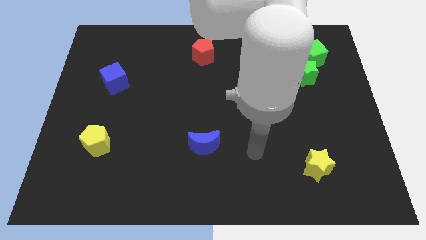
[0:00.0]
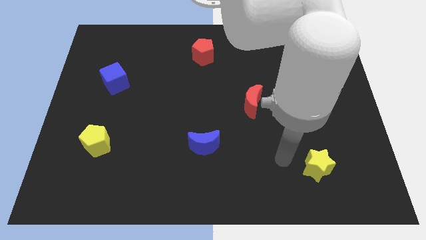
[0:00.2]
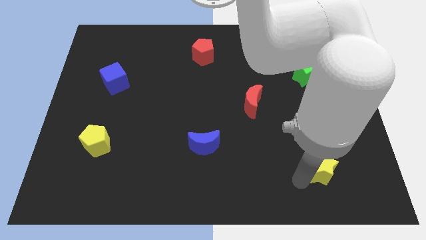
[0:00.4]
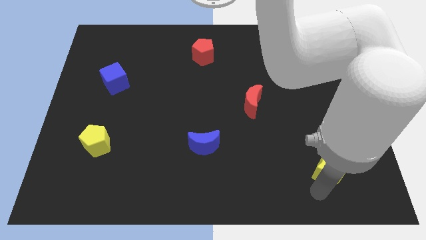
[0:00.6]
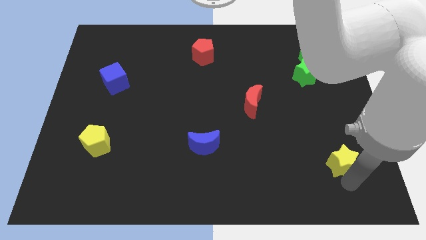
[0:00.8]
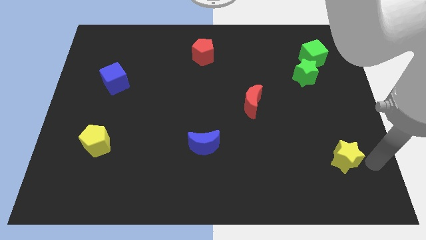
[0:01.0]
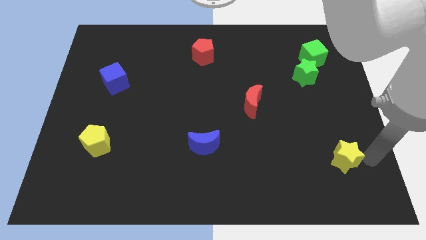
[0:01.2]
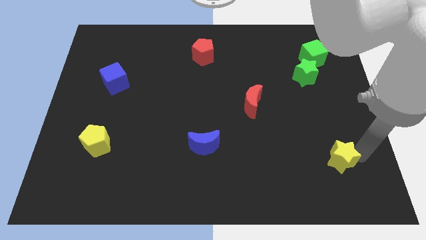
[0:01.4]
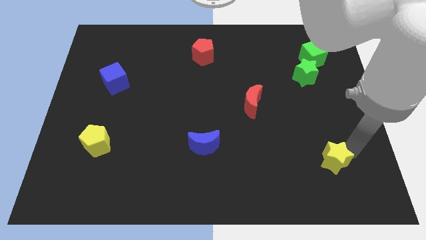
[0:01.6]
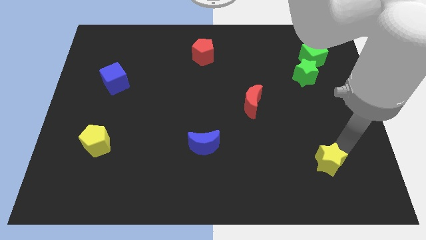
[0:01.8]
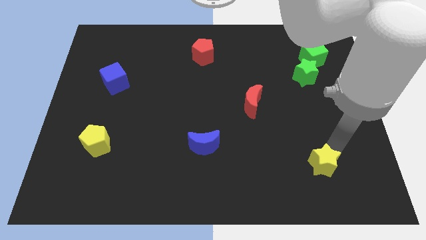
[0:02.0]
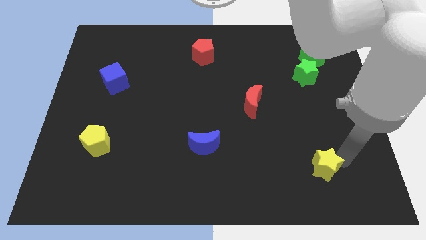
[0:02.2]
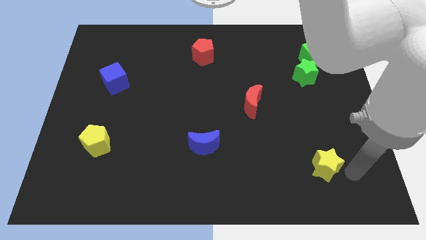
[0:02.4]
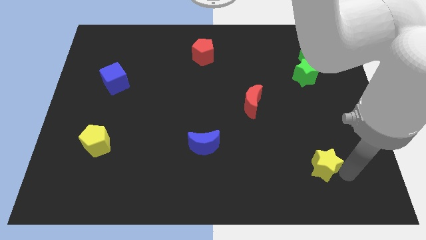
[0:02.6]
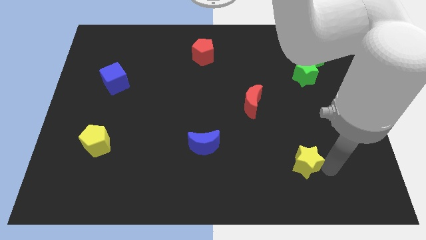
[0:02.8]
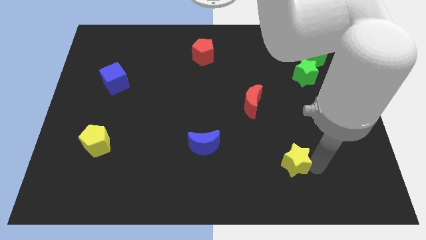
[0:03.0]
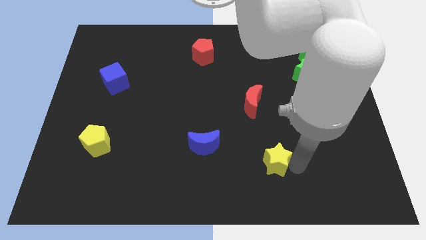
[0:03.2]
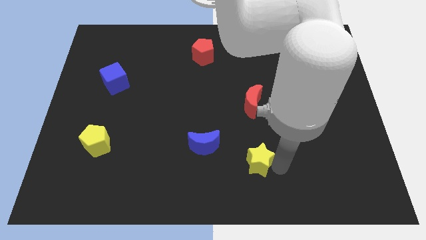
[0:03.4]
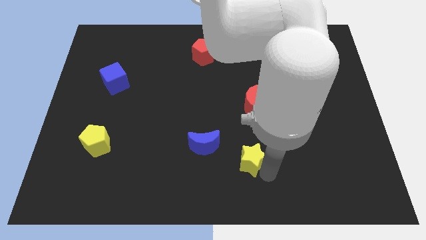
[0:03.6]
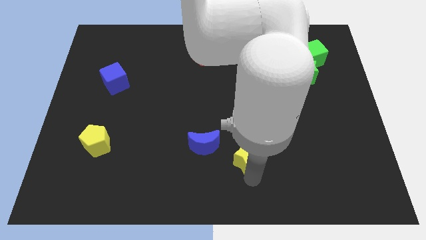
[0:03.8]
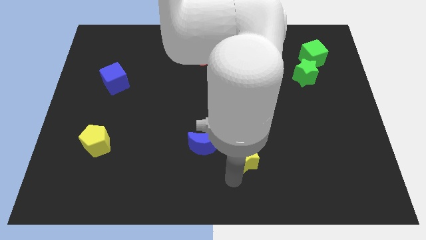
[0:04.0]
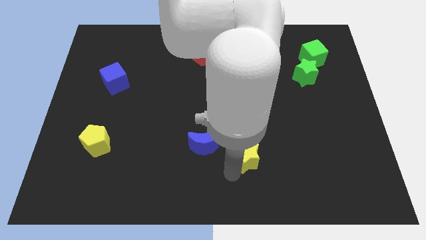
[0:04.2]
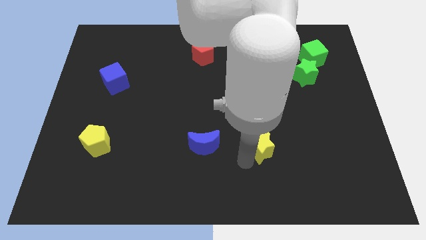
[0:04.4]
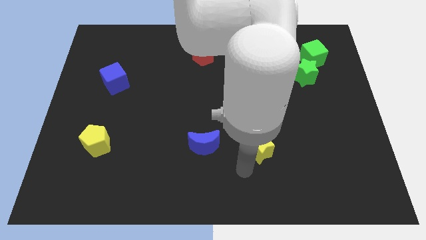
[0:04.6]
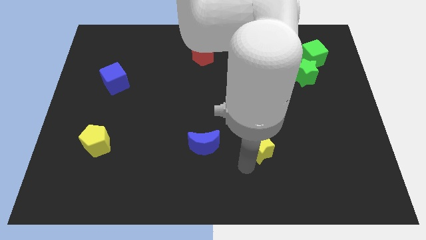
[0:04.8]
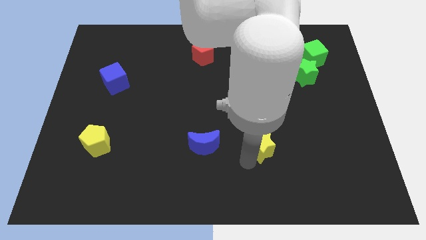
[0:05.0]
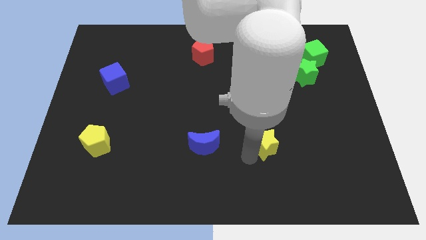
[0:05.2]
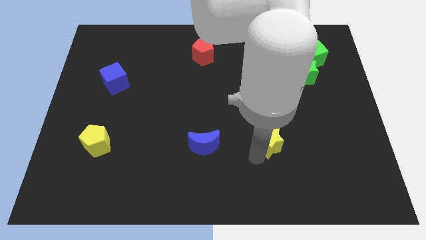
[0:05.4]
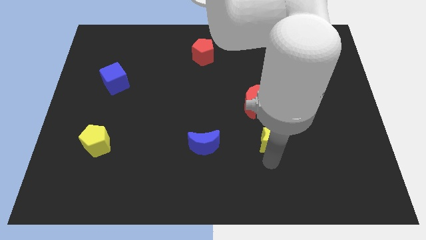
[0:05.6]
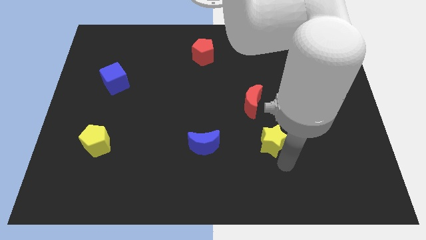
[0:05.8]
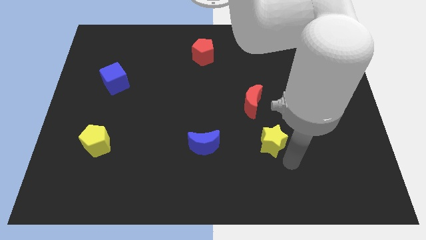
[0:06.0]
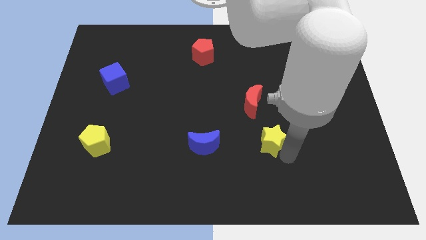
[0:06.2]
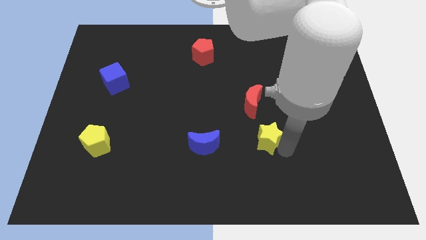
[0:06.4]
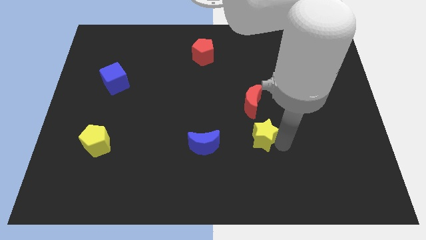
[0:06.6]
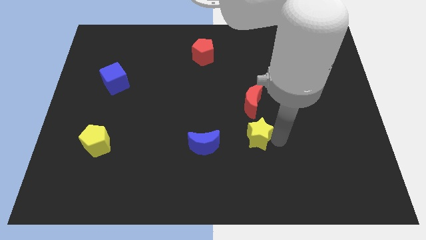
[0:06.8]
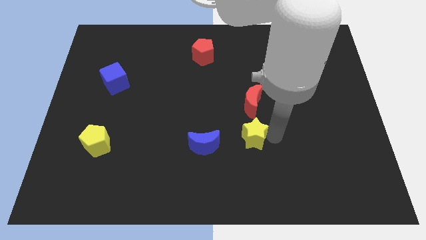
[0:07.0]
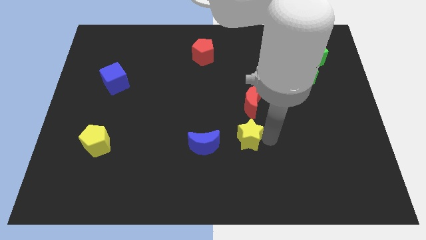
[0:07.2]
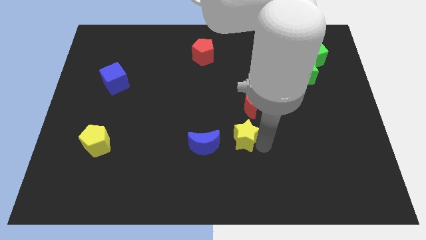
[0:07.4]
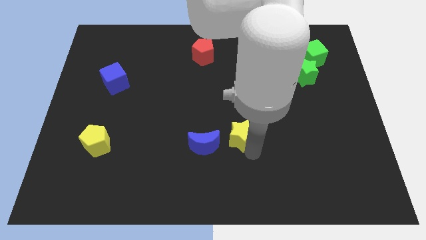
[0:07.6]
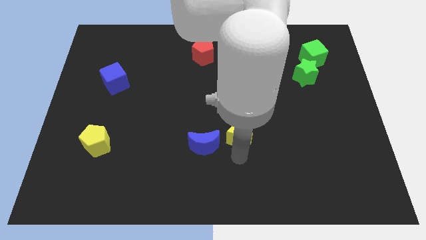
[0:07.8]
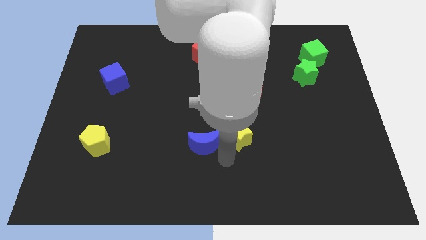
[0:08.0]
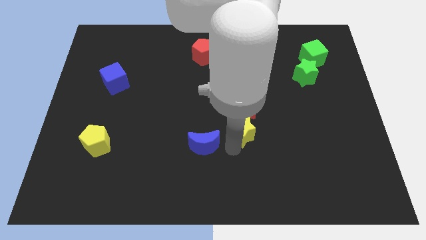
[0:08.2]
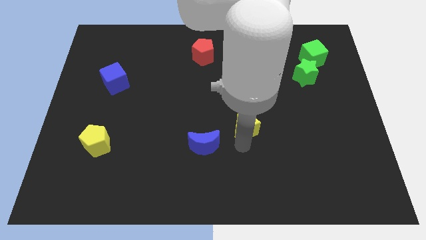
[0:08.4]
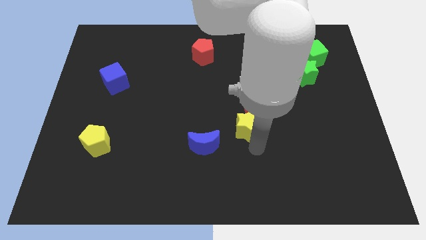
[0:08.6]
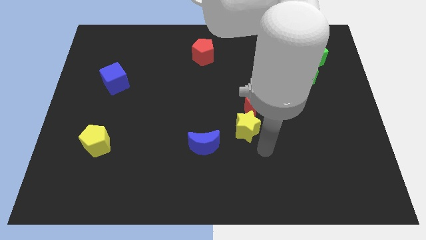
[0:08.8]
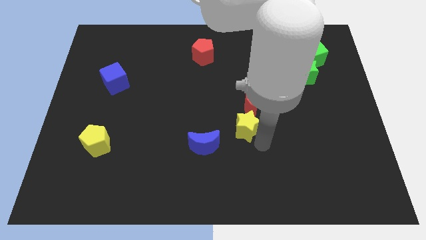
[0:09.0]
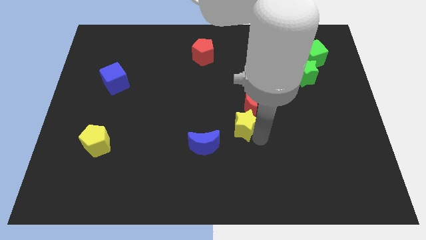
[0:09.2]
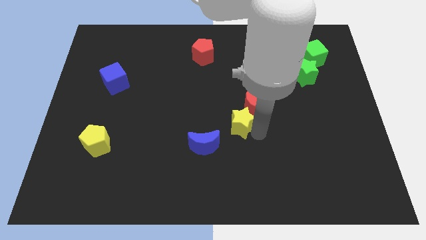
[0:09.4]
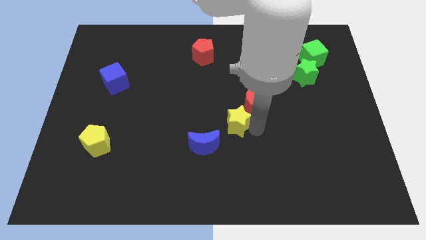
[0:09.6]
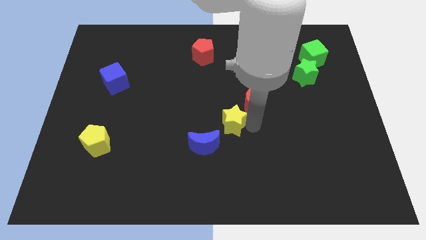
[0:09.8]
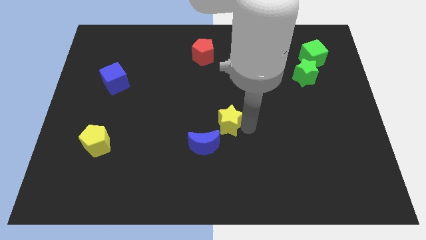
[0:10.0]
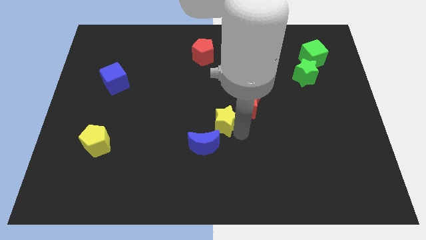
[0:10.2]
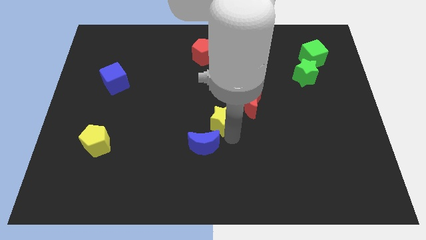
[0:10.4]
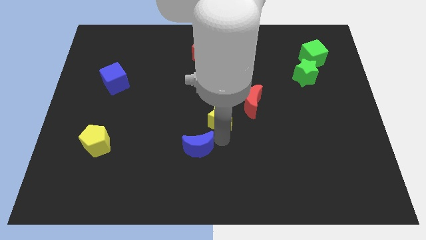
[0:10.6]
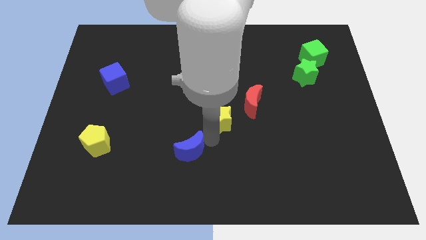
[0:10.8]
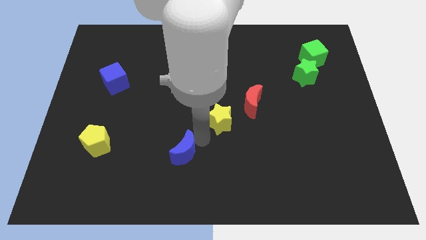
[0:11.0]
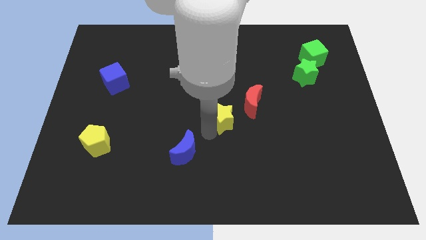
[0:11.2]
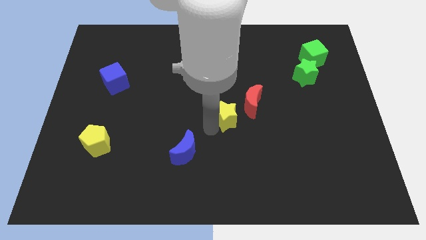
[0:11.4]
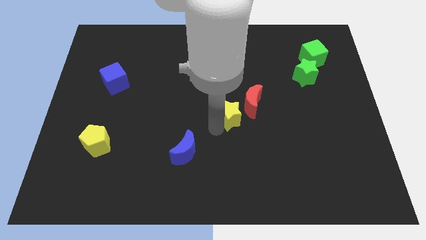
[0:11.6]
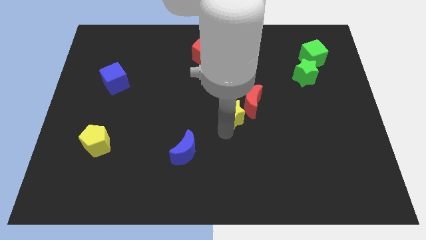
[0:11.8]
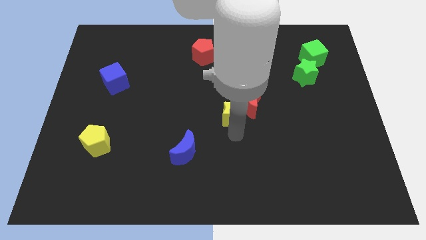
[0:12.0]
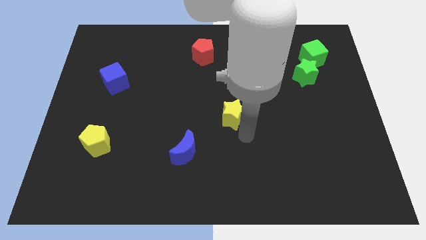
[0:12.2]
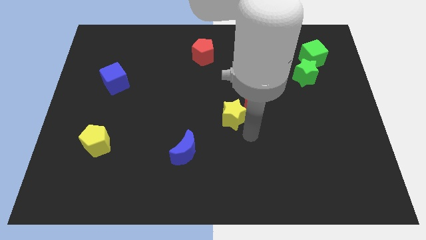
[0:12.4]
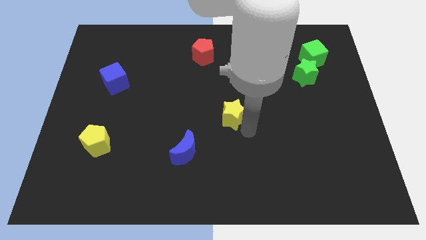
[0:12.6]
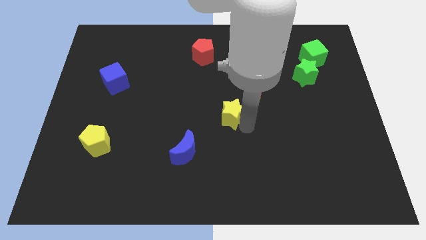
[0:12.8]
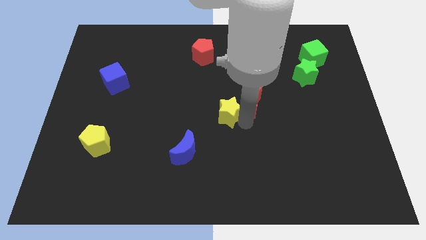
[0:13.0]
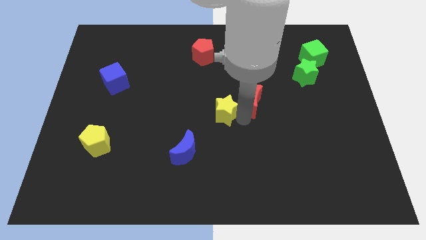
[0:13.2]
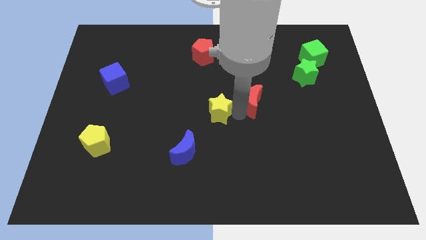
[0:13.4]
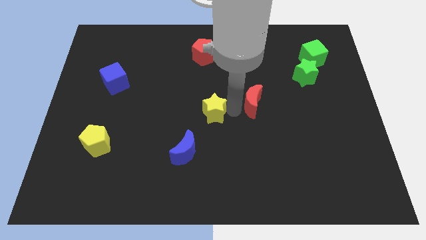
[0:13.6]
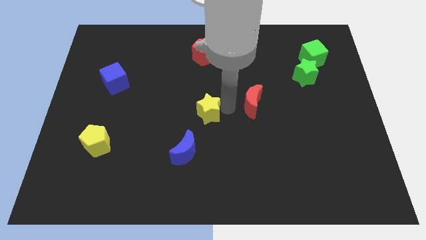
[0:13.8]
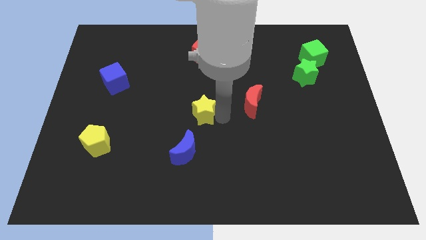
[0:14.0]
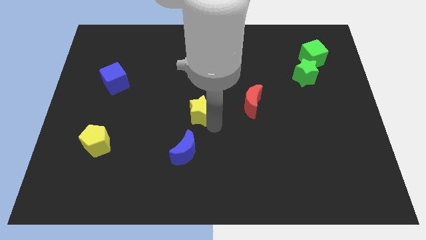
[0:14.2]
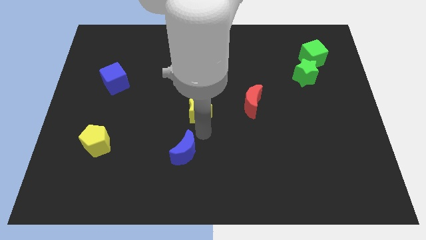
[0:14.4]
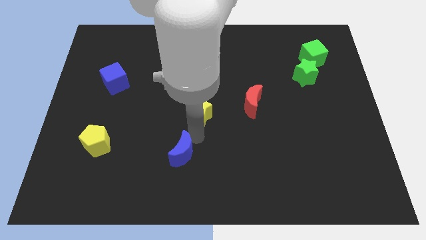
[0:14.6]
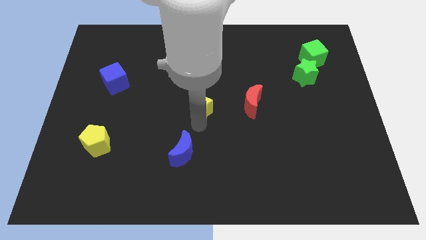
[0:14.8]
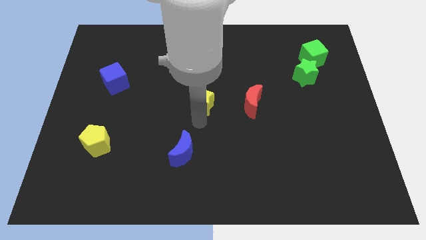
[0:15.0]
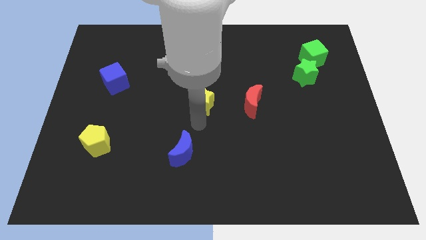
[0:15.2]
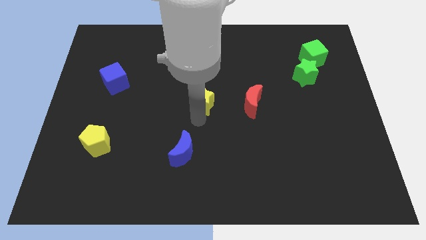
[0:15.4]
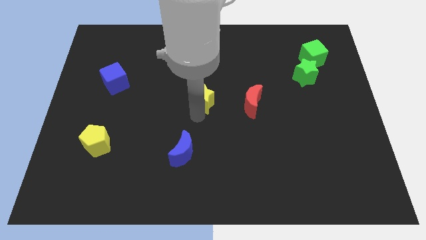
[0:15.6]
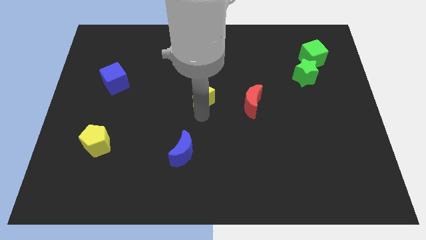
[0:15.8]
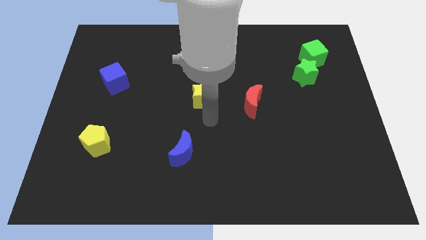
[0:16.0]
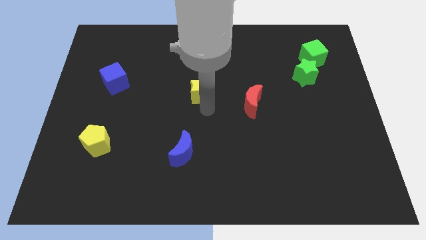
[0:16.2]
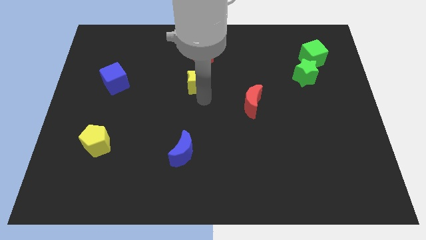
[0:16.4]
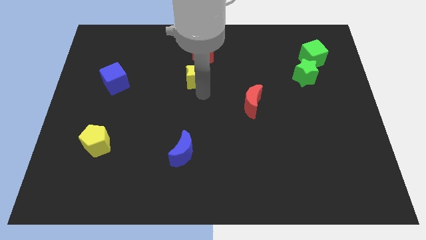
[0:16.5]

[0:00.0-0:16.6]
push the yellow star to the bottom left of the red pentagon

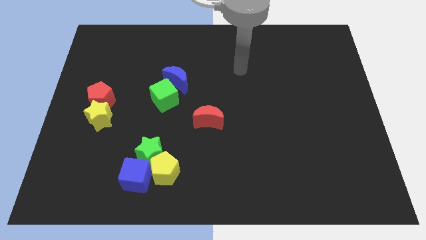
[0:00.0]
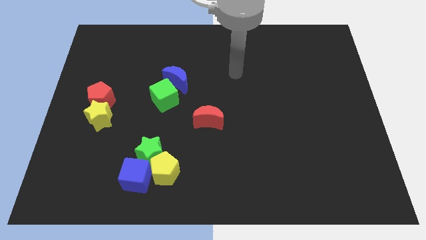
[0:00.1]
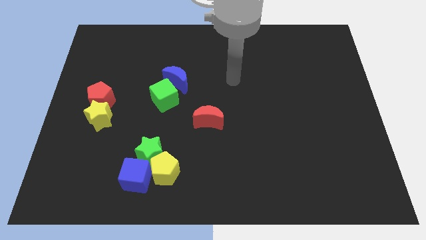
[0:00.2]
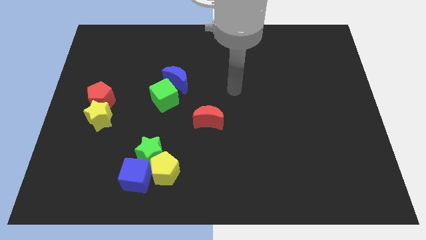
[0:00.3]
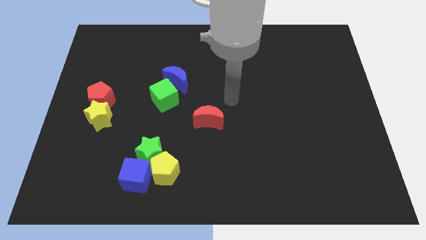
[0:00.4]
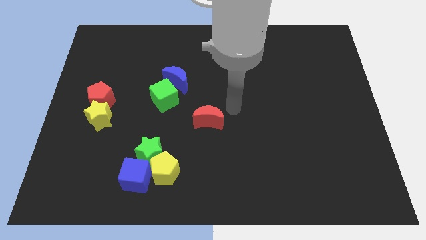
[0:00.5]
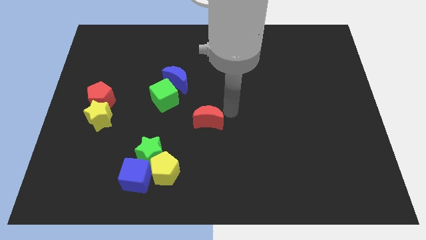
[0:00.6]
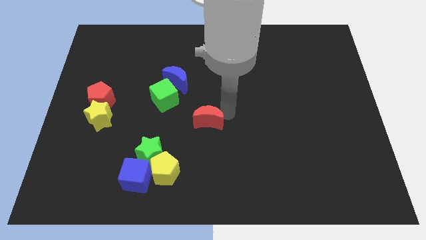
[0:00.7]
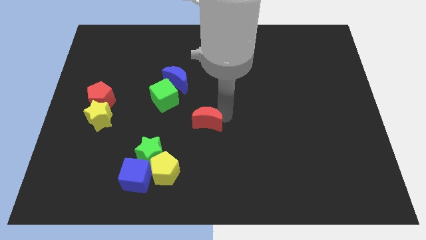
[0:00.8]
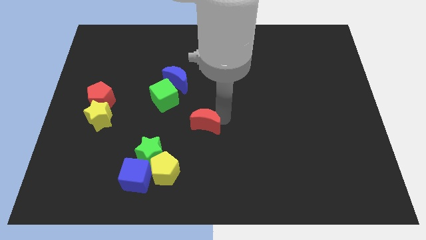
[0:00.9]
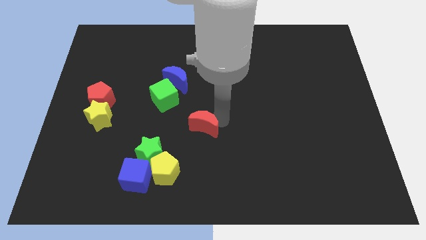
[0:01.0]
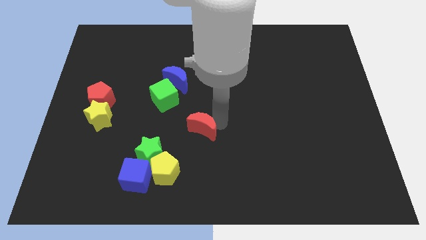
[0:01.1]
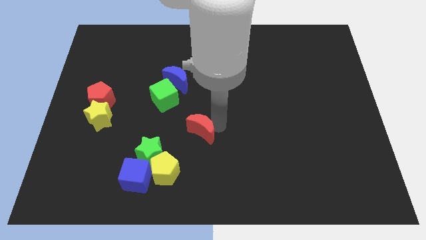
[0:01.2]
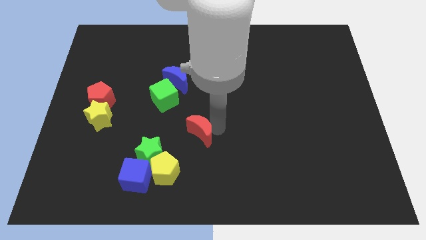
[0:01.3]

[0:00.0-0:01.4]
move the red moon diagonally up and to the right of the green star
